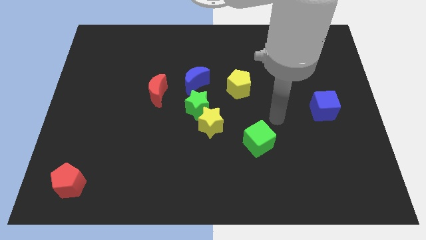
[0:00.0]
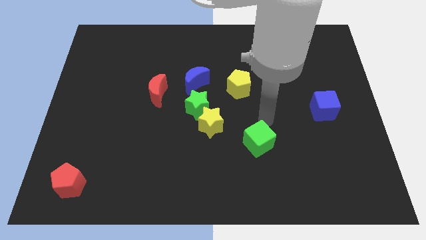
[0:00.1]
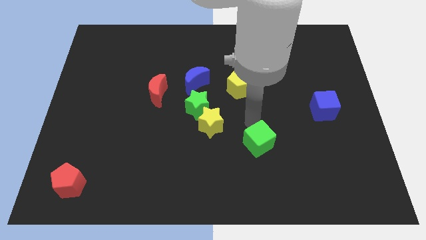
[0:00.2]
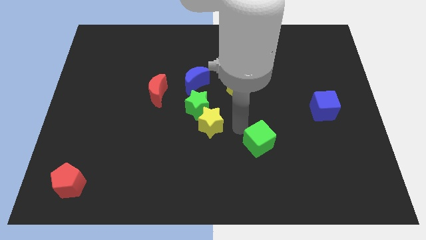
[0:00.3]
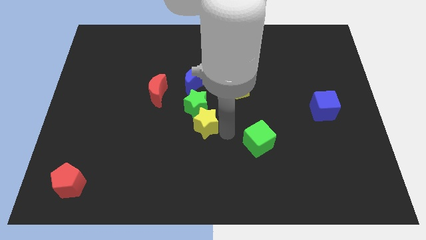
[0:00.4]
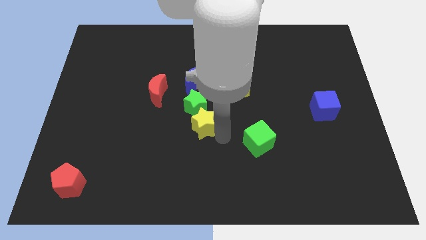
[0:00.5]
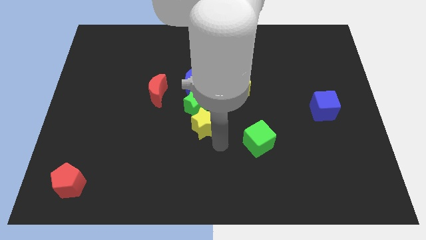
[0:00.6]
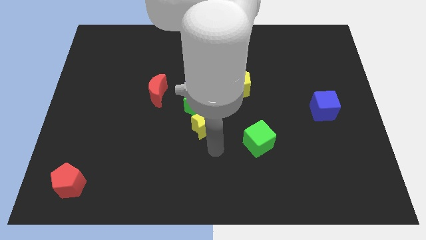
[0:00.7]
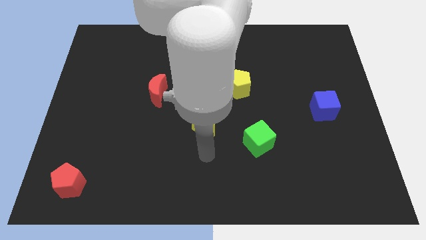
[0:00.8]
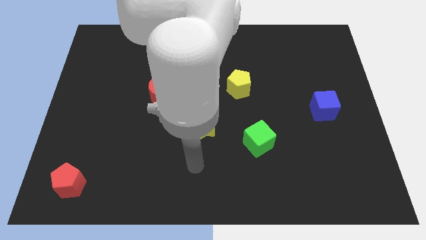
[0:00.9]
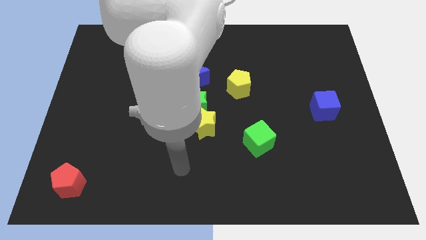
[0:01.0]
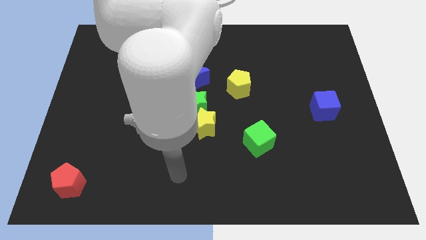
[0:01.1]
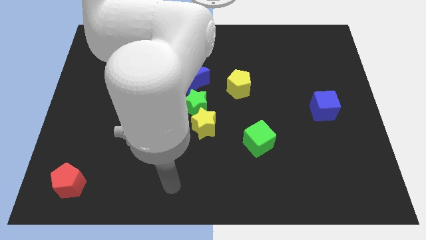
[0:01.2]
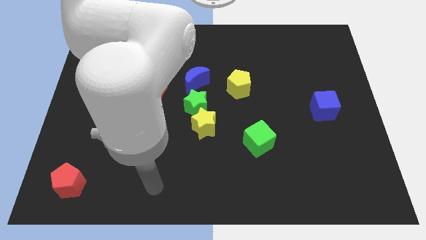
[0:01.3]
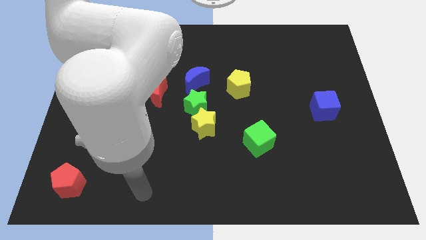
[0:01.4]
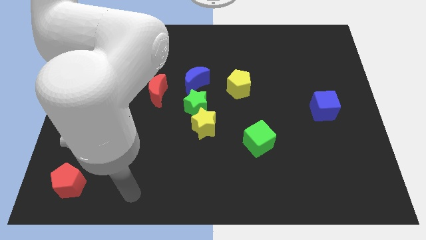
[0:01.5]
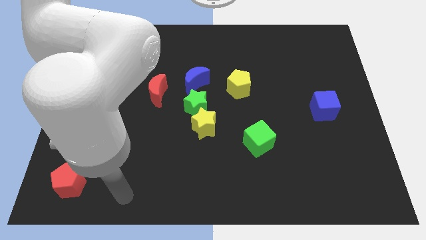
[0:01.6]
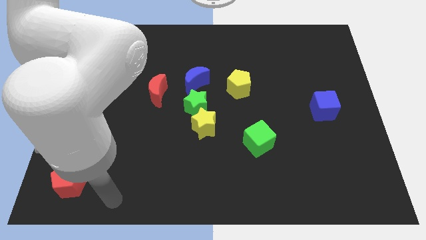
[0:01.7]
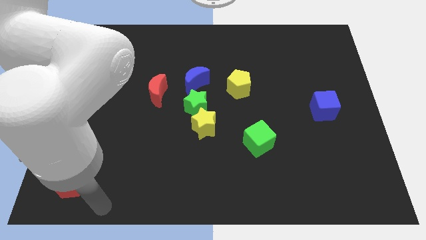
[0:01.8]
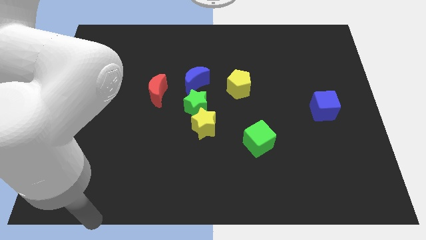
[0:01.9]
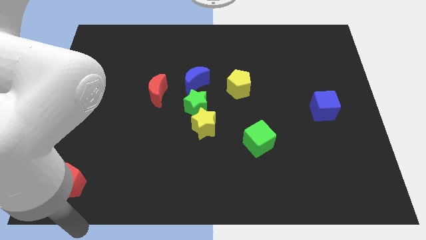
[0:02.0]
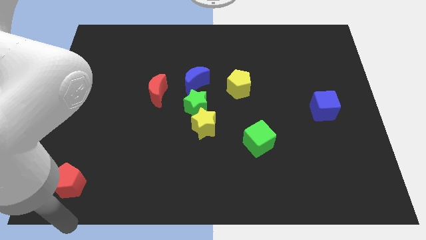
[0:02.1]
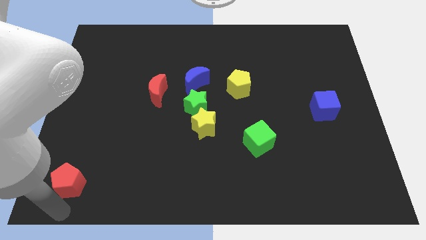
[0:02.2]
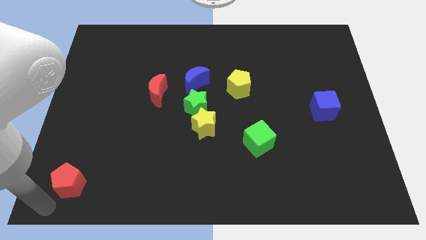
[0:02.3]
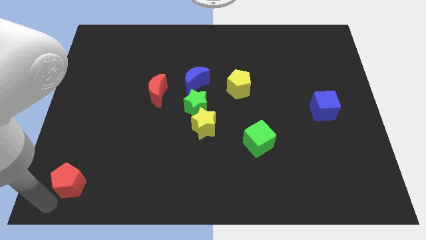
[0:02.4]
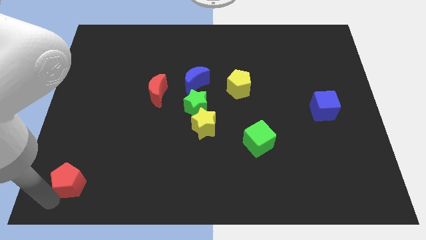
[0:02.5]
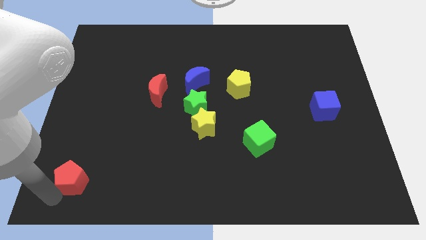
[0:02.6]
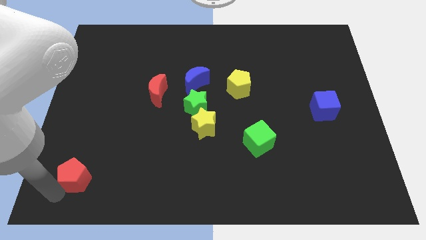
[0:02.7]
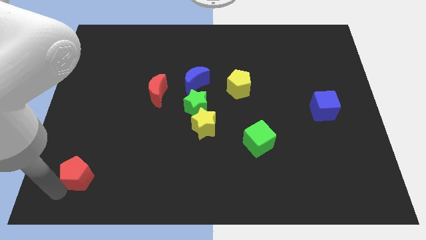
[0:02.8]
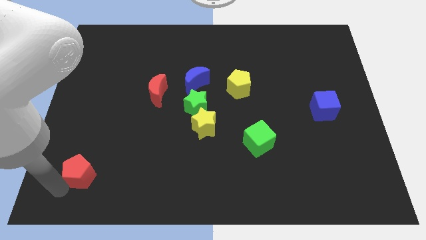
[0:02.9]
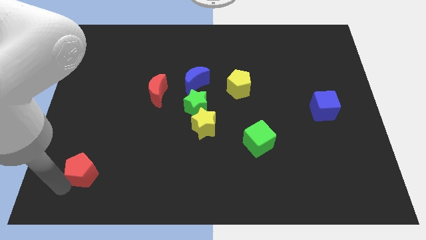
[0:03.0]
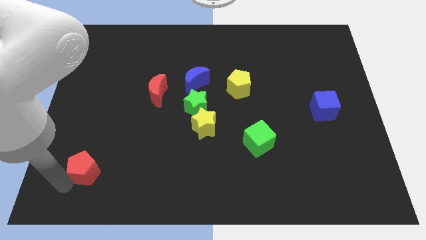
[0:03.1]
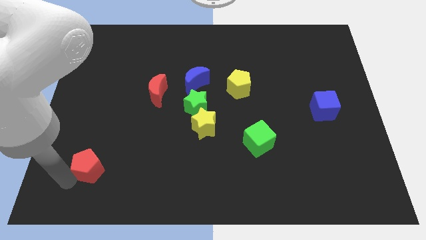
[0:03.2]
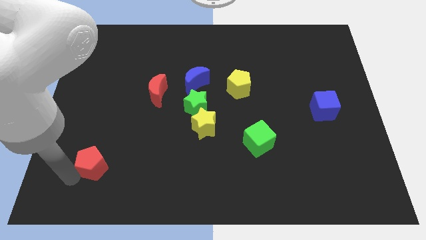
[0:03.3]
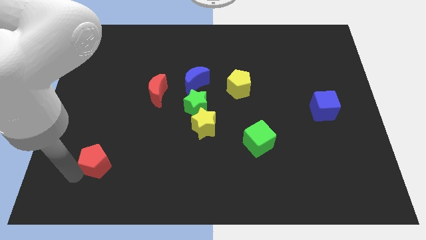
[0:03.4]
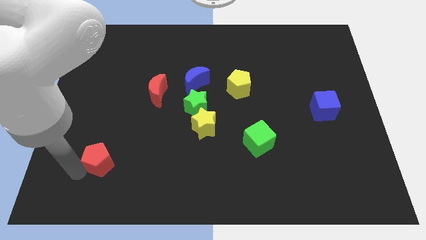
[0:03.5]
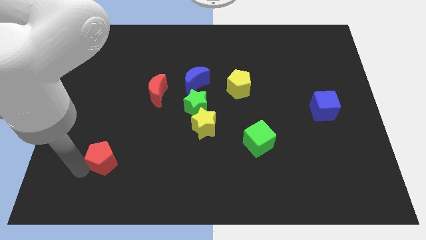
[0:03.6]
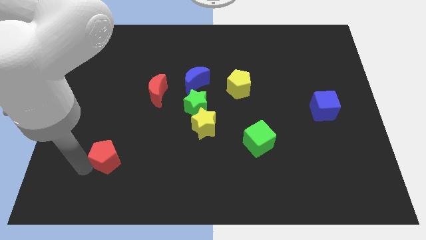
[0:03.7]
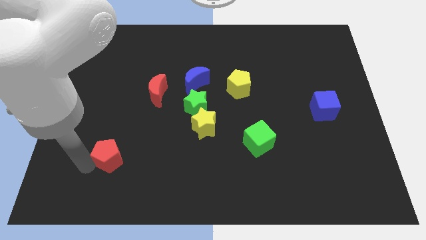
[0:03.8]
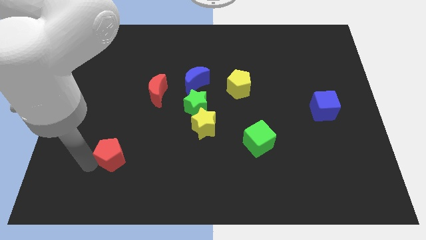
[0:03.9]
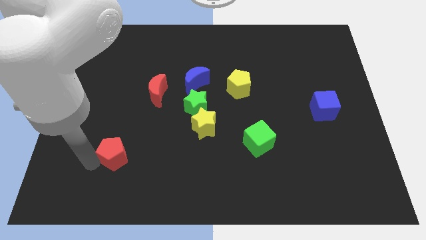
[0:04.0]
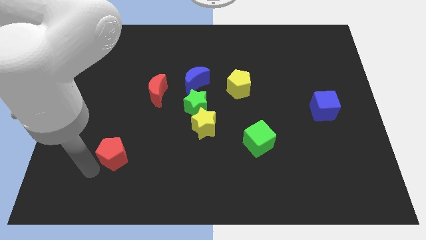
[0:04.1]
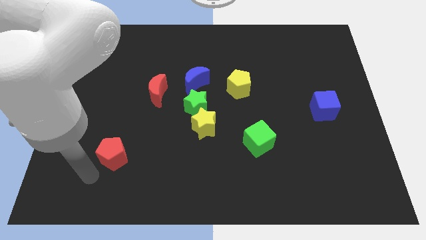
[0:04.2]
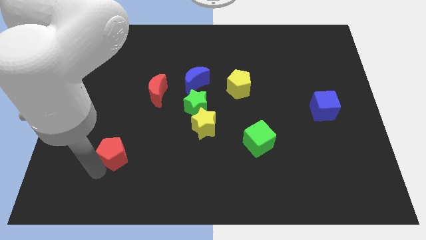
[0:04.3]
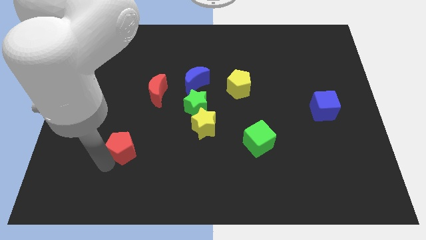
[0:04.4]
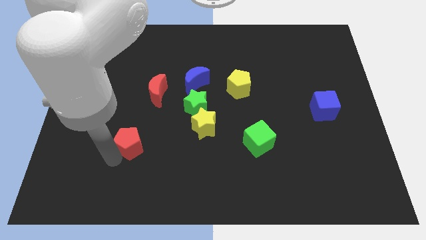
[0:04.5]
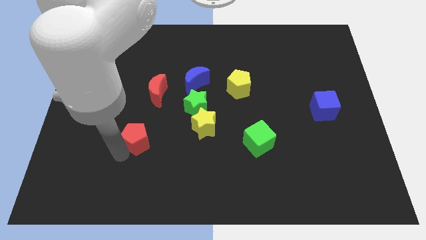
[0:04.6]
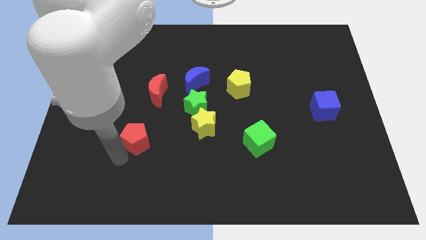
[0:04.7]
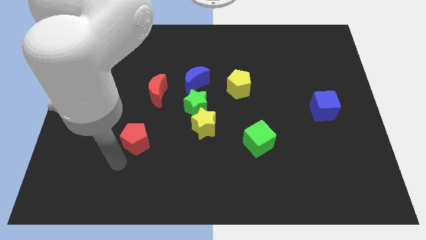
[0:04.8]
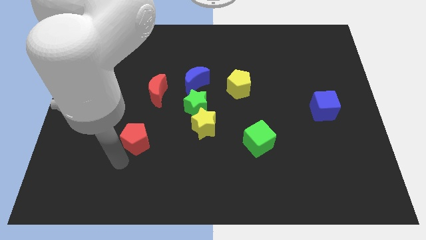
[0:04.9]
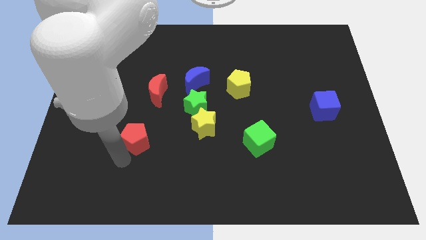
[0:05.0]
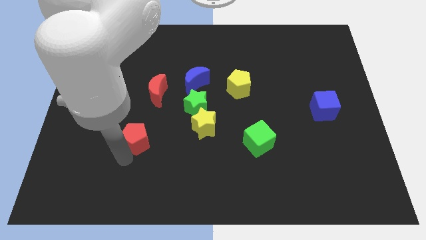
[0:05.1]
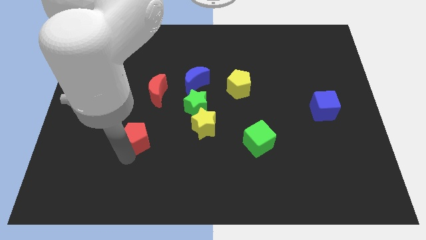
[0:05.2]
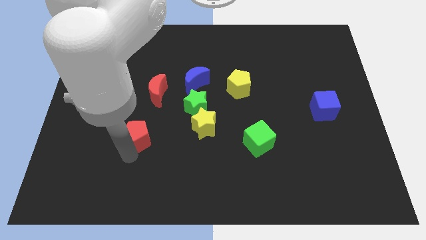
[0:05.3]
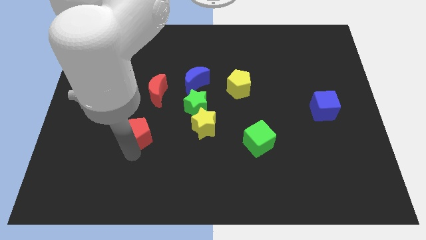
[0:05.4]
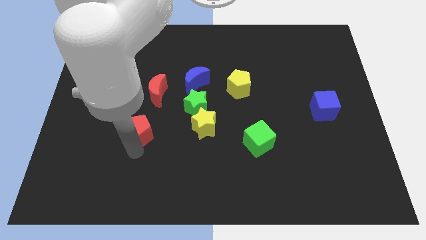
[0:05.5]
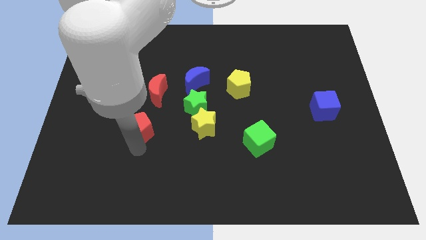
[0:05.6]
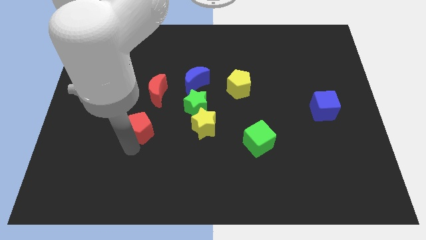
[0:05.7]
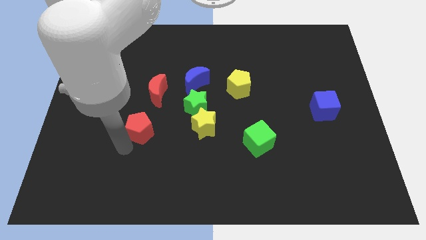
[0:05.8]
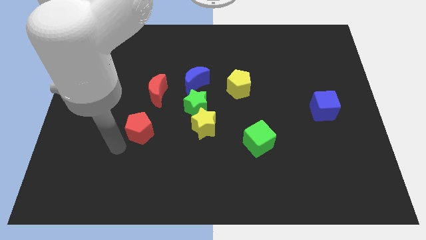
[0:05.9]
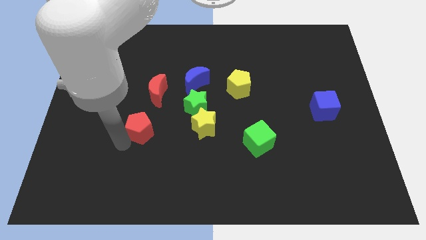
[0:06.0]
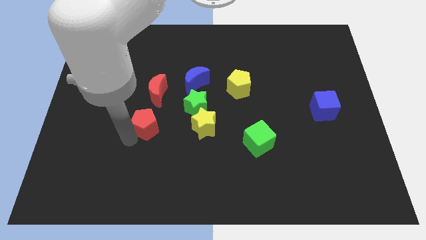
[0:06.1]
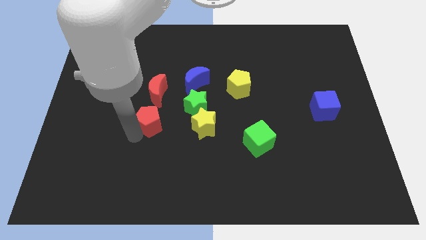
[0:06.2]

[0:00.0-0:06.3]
slide the red pentagon up and to the right

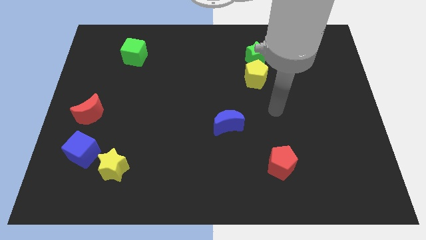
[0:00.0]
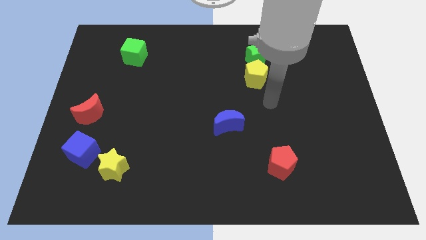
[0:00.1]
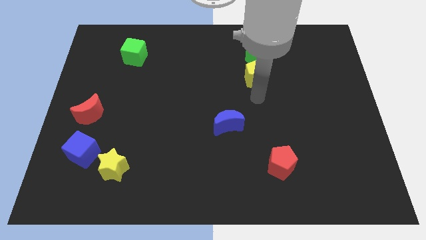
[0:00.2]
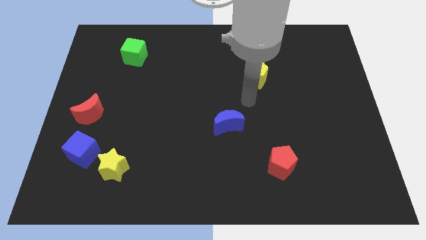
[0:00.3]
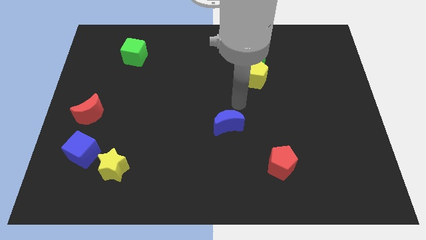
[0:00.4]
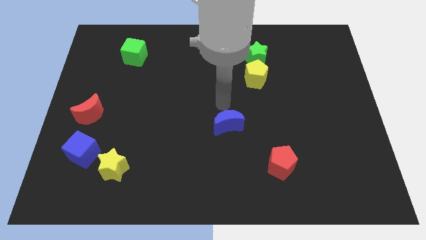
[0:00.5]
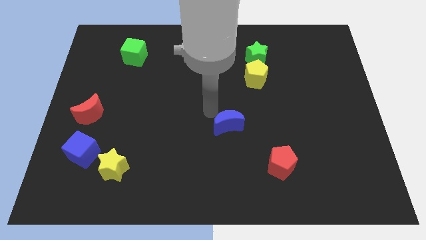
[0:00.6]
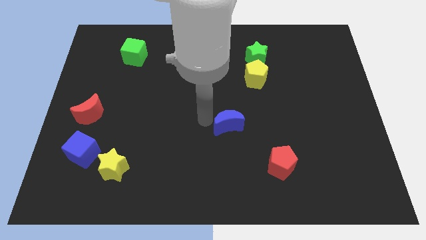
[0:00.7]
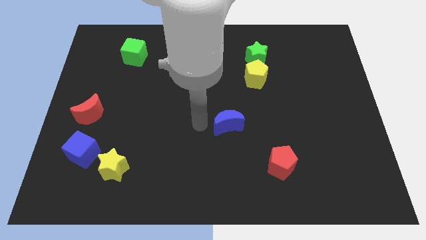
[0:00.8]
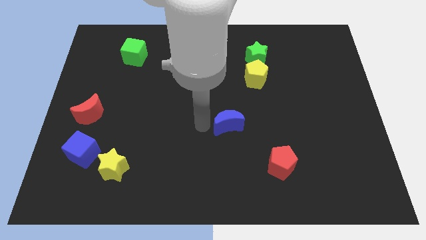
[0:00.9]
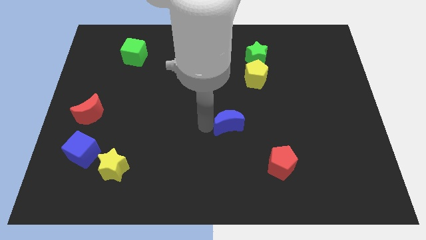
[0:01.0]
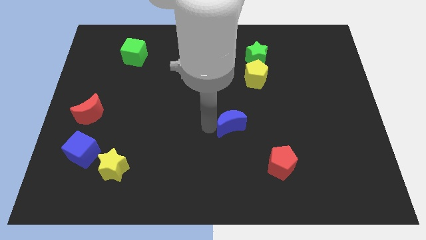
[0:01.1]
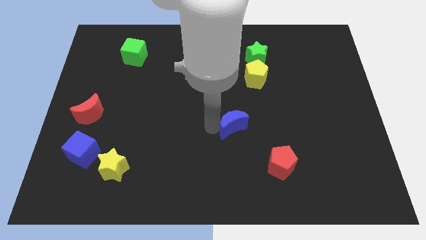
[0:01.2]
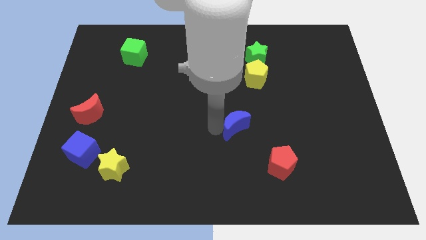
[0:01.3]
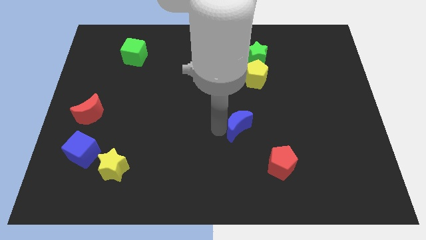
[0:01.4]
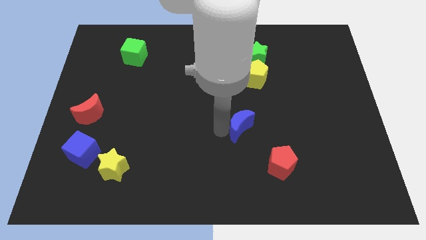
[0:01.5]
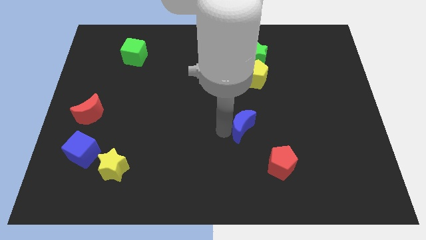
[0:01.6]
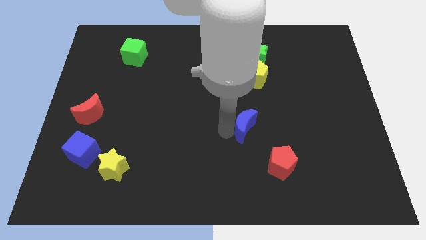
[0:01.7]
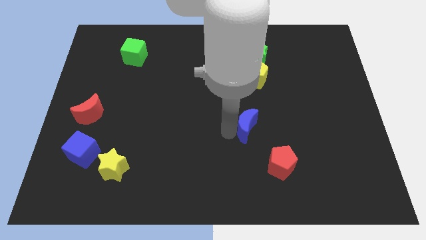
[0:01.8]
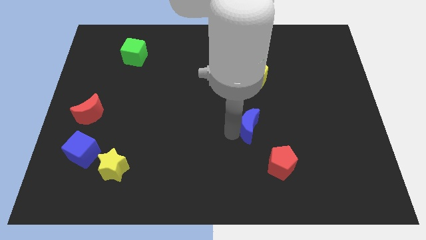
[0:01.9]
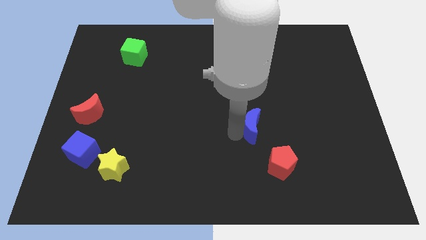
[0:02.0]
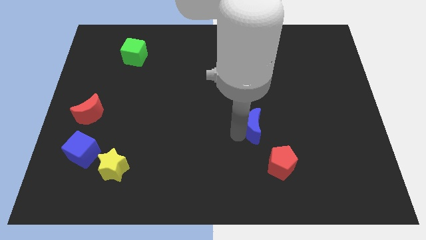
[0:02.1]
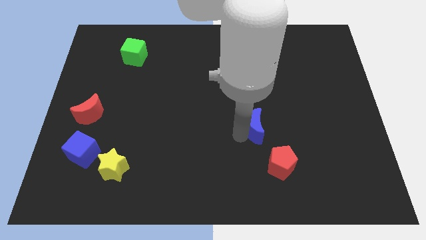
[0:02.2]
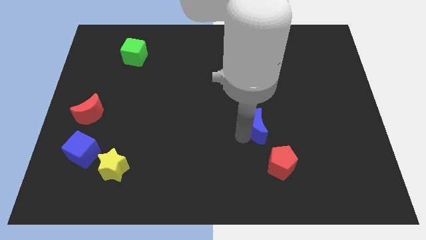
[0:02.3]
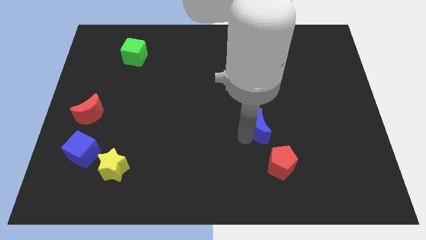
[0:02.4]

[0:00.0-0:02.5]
push the blue moon somewhat to the right
